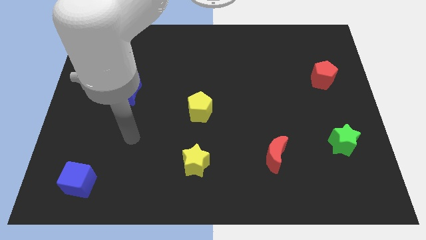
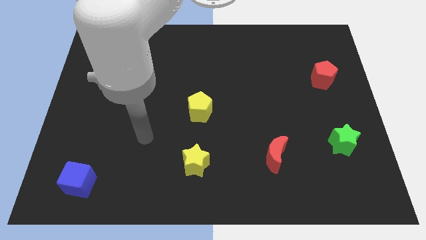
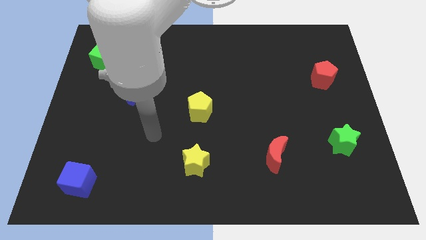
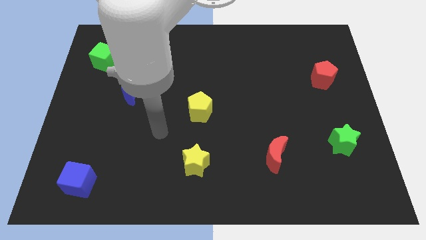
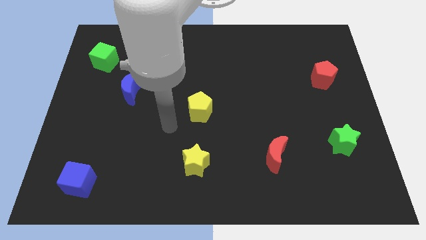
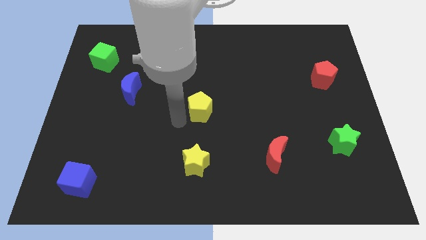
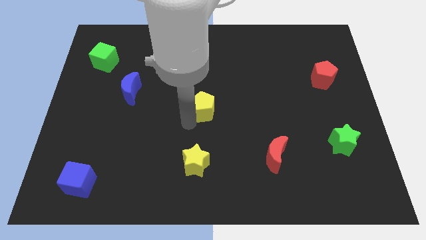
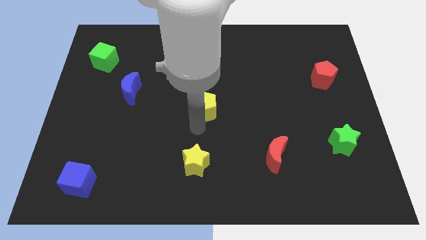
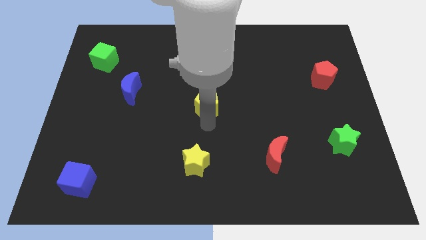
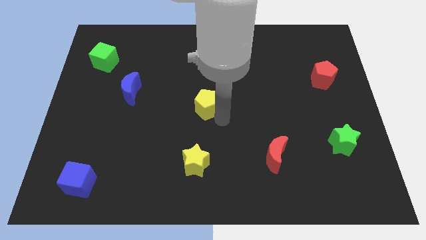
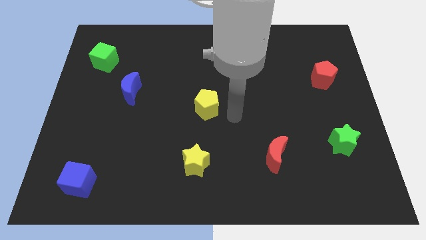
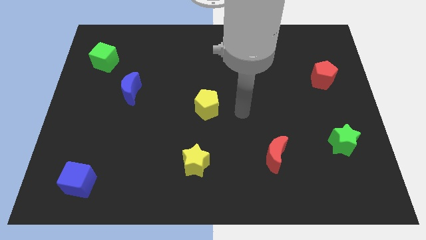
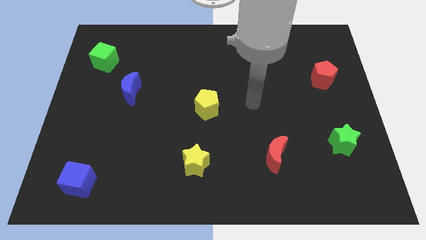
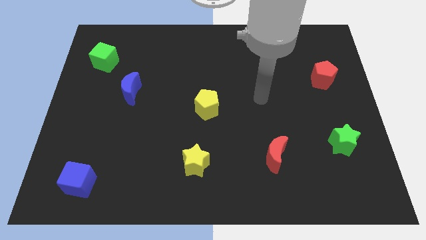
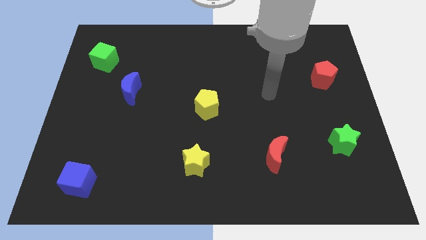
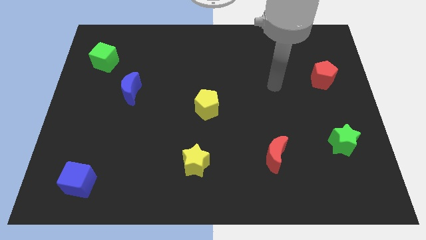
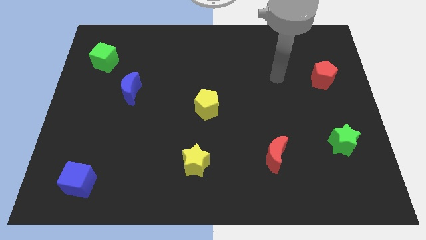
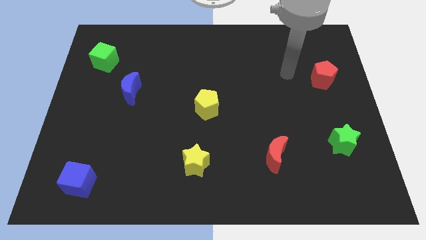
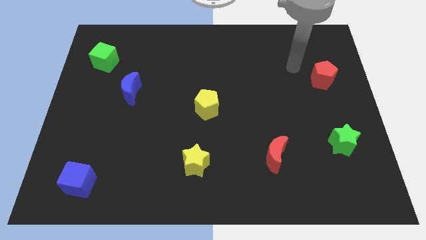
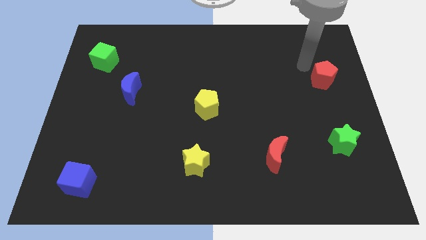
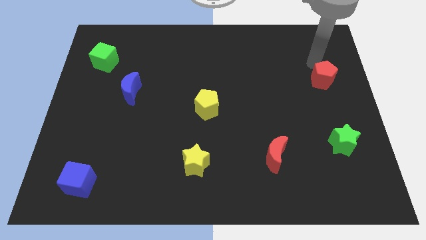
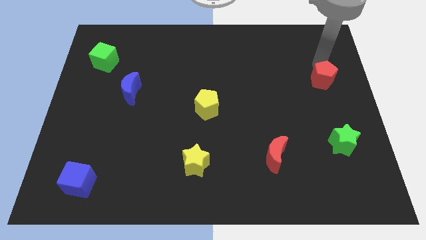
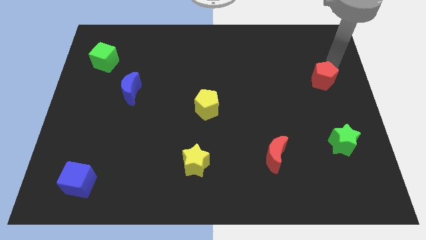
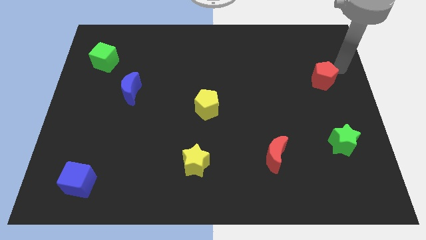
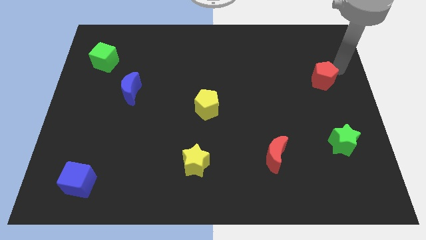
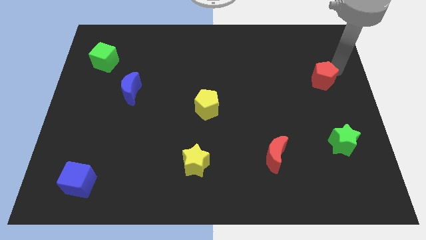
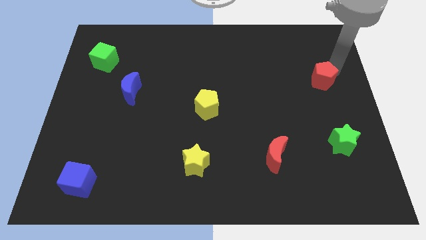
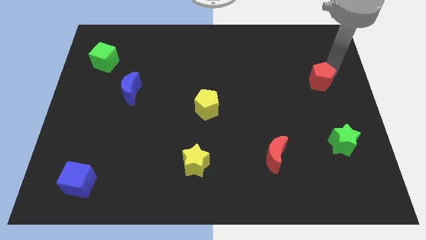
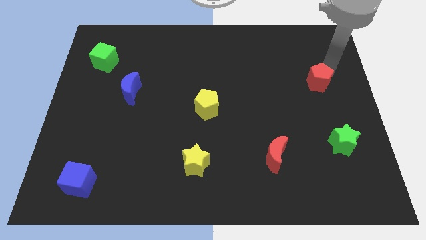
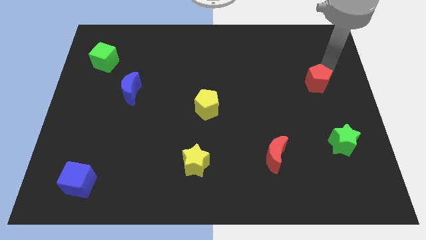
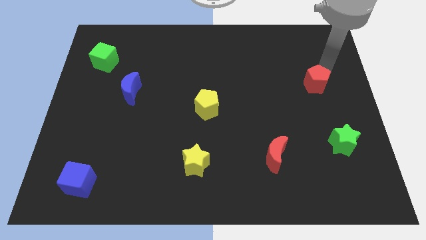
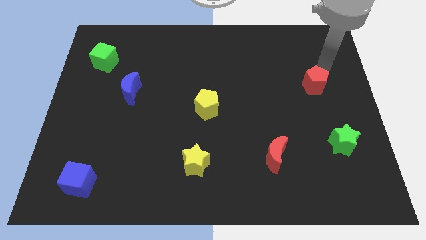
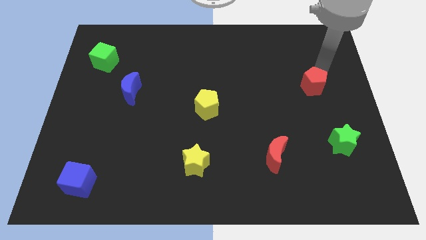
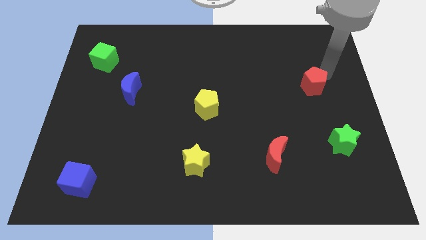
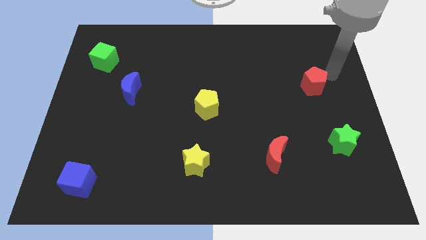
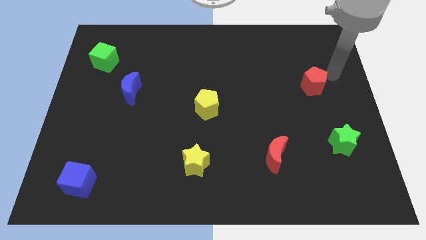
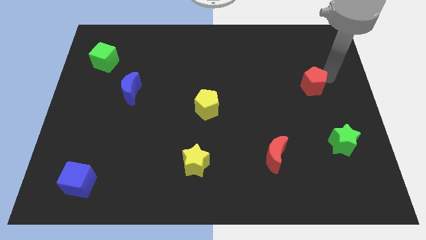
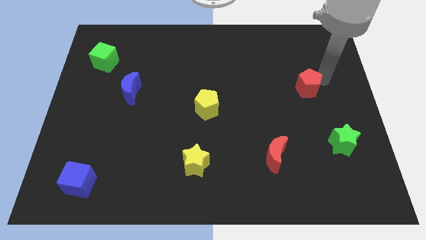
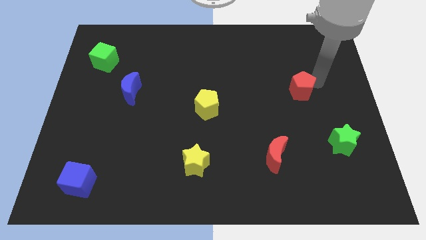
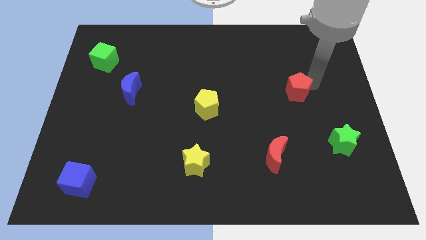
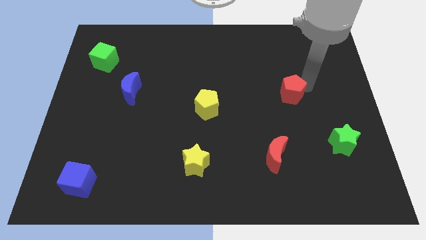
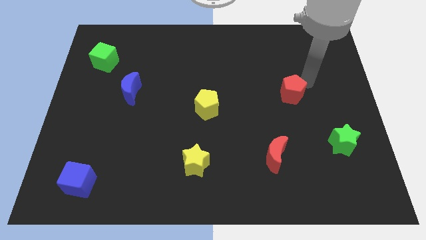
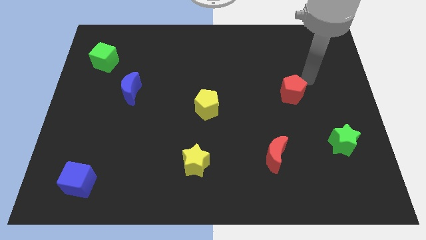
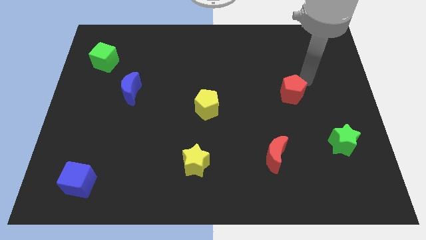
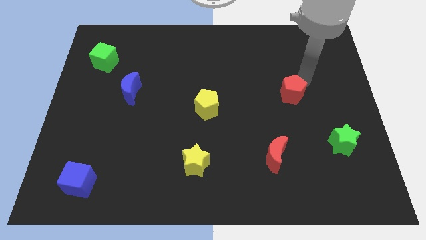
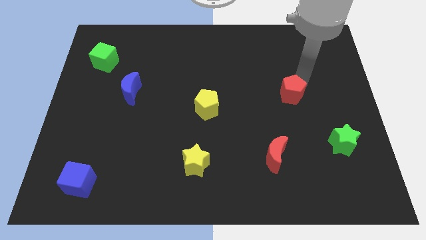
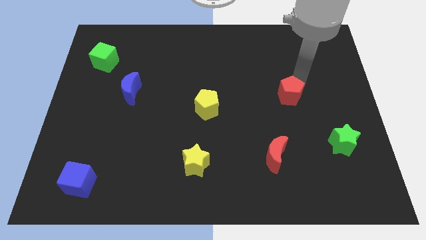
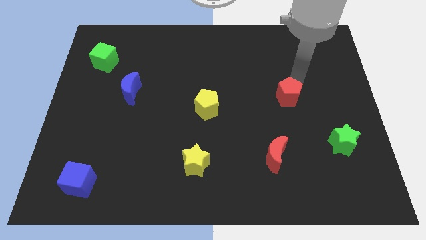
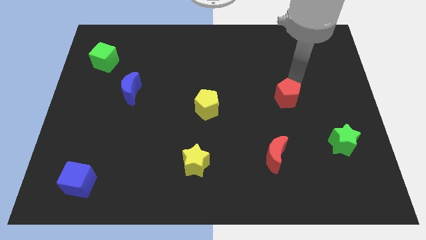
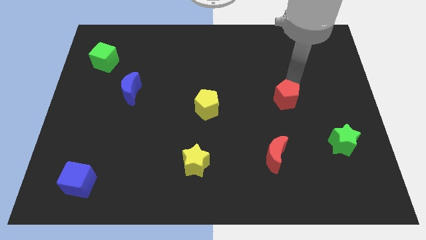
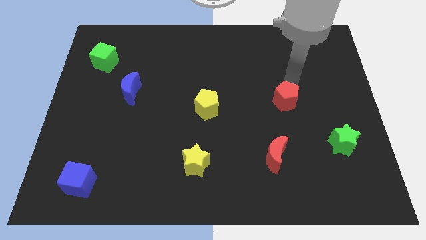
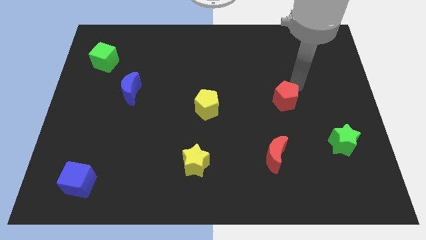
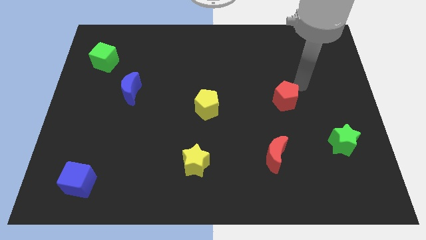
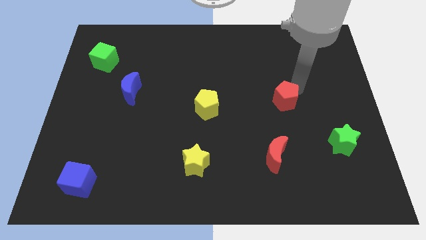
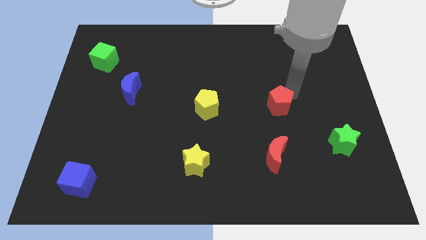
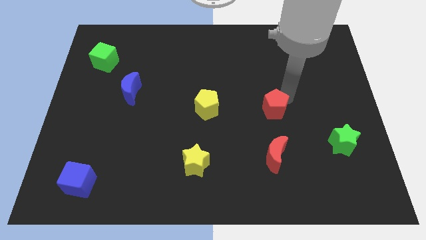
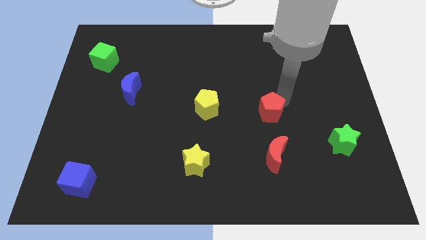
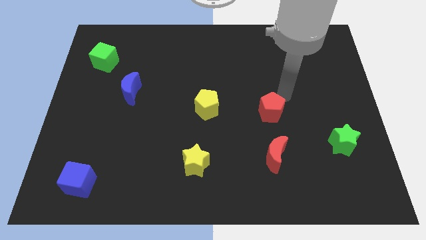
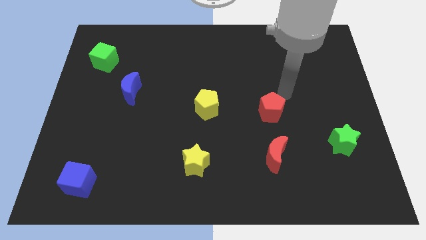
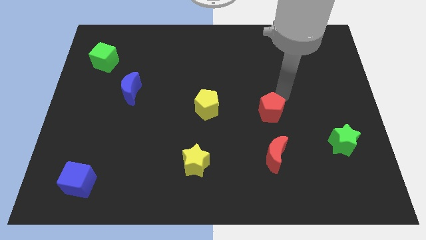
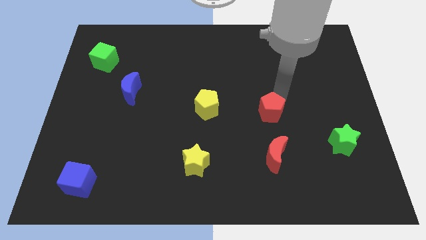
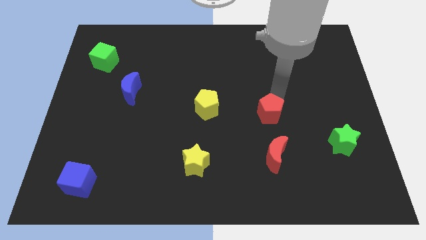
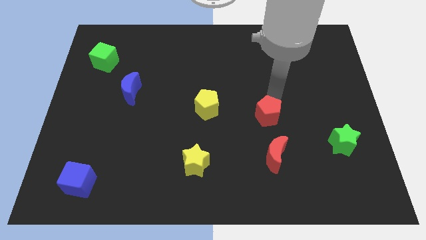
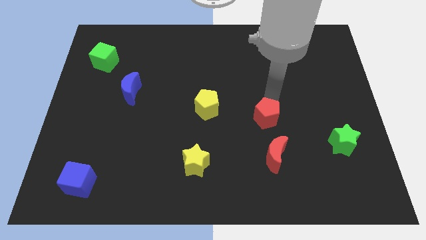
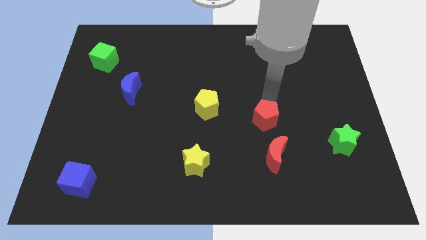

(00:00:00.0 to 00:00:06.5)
push the red pentagon down and left diagonally

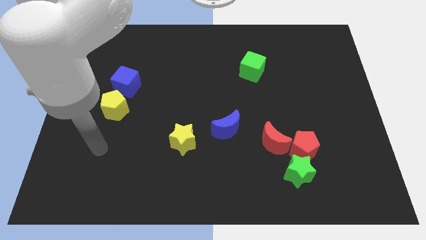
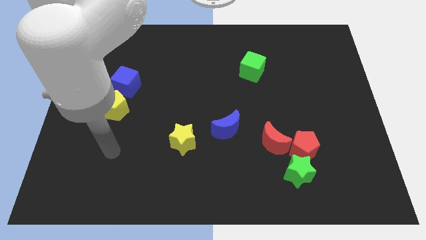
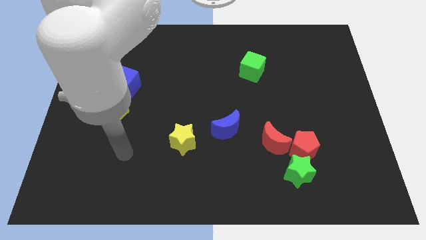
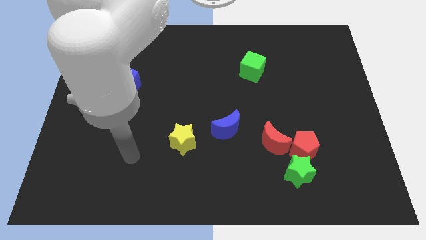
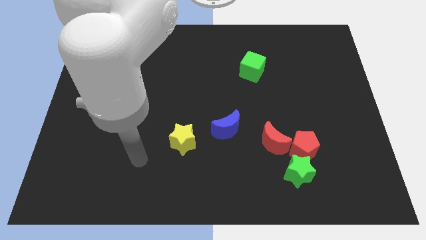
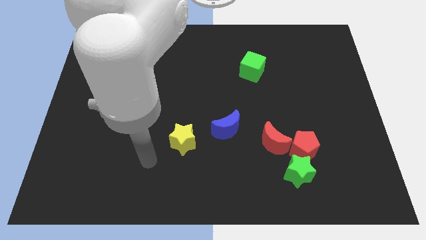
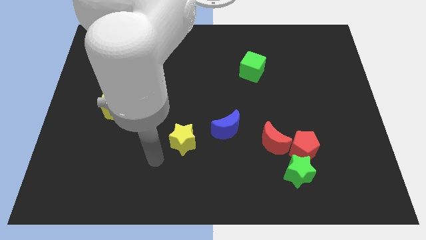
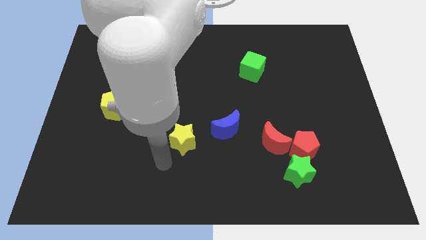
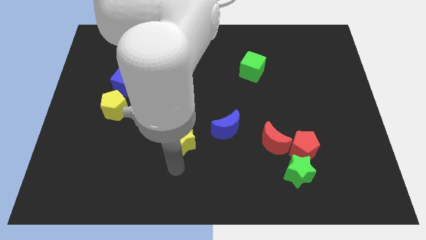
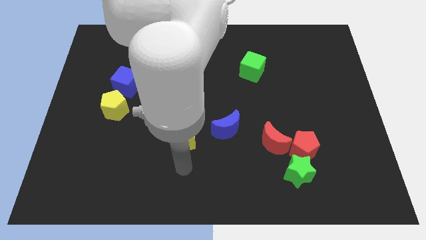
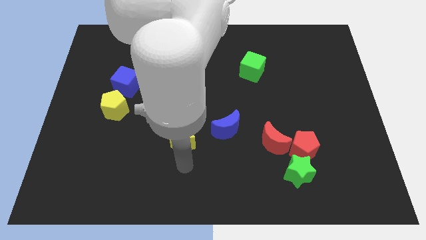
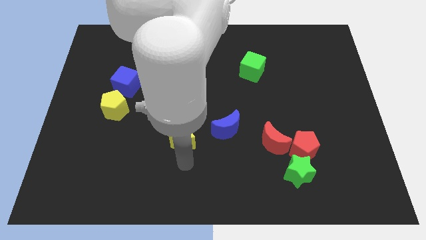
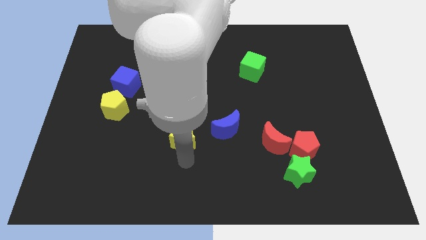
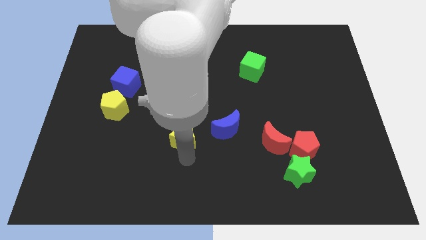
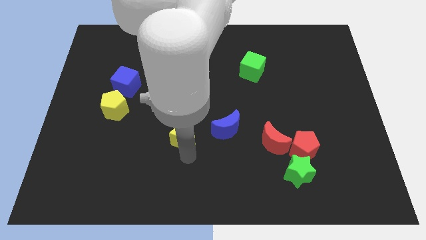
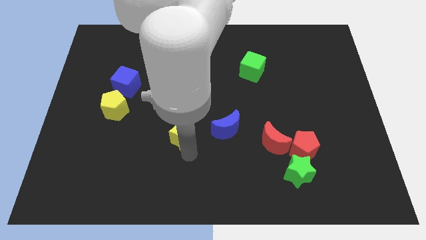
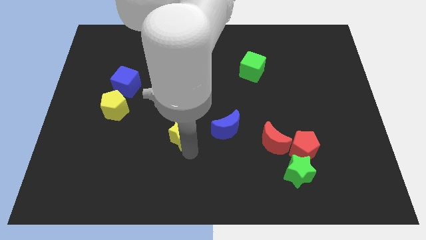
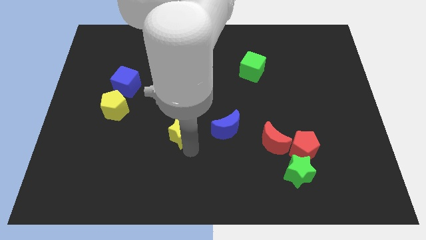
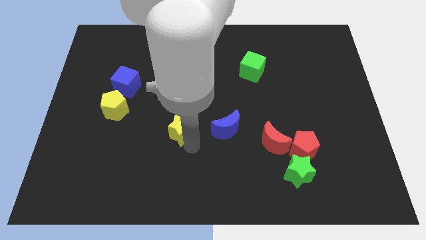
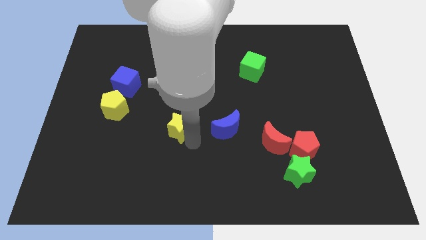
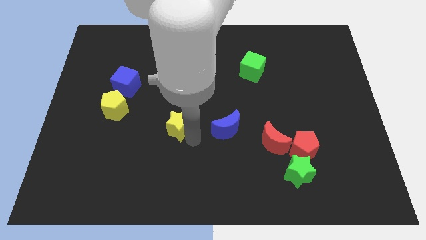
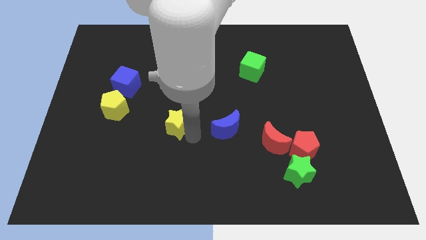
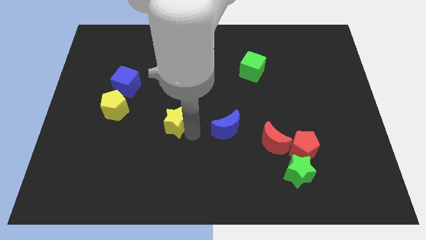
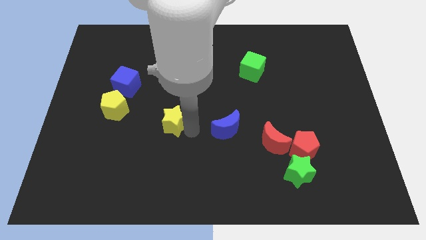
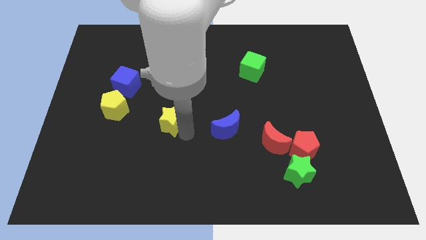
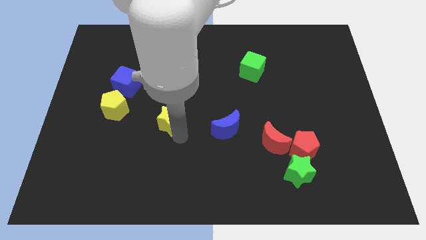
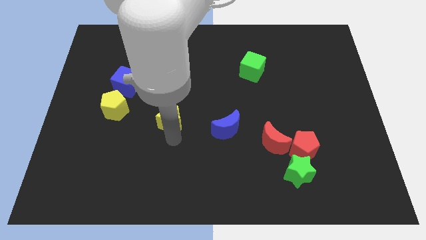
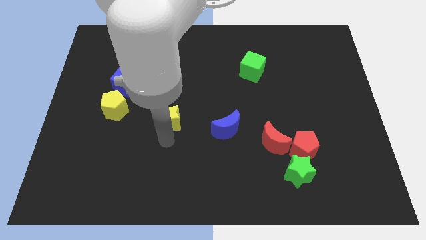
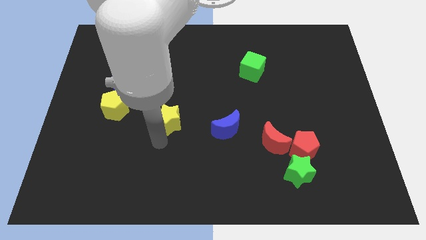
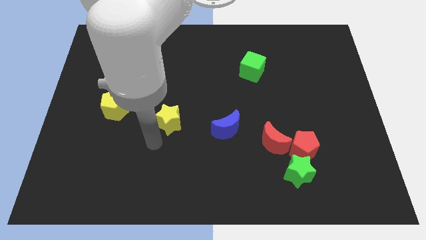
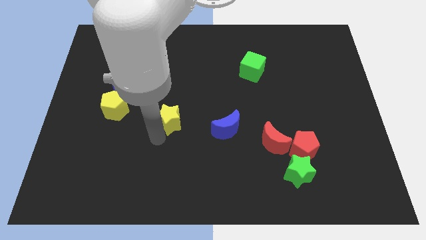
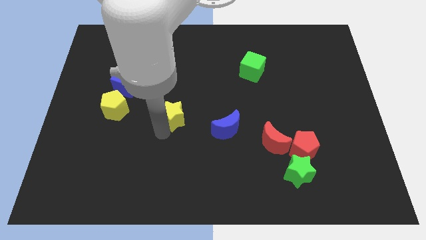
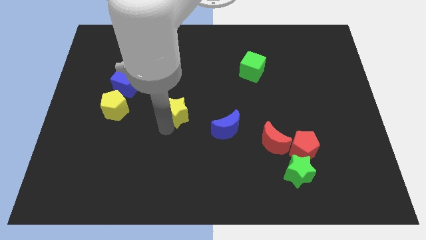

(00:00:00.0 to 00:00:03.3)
move the yellow star a little bit up
